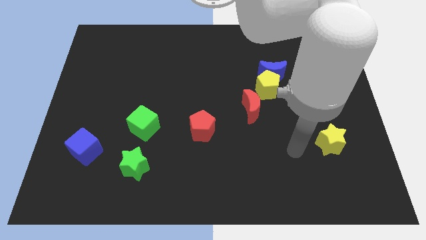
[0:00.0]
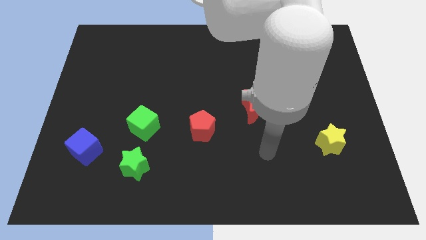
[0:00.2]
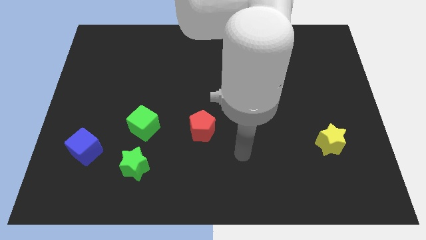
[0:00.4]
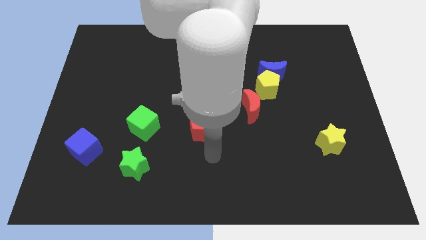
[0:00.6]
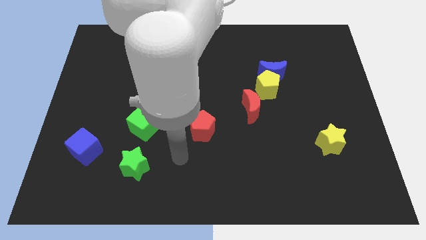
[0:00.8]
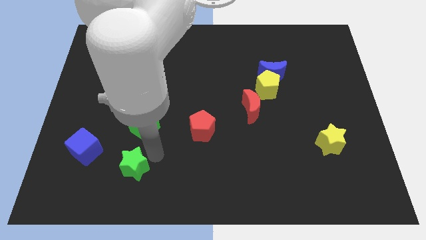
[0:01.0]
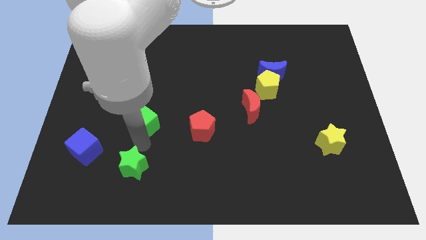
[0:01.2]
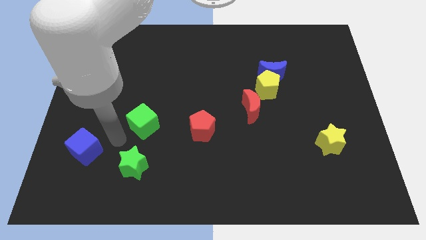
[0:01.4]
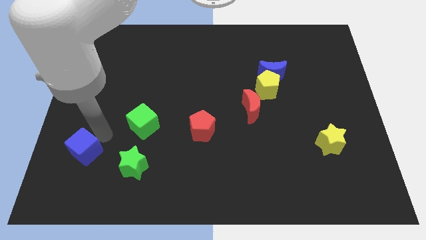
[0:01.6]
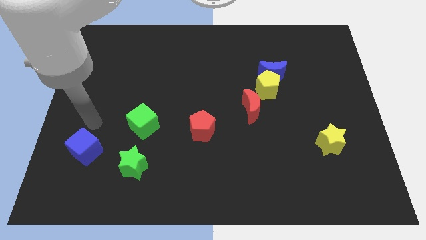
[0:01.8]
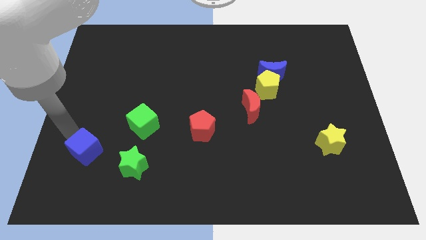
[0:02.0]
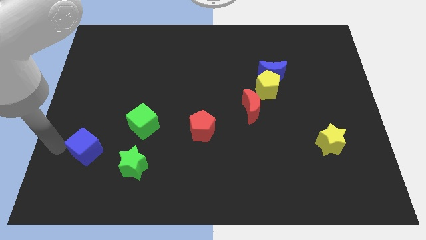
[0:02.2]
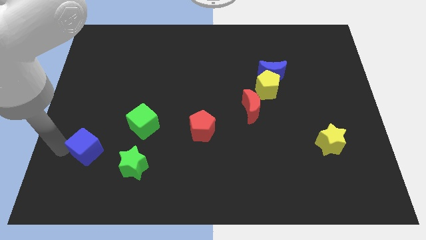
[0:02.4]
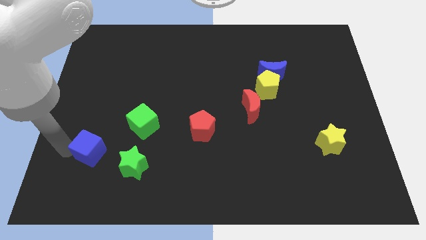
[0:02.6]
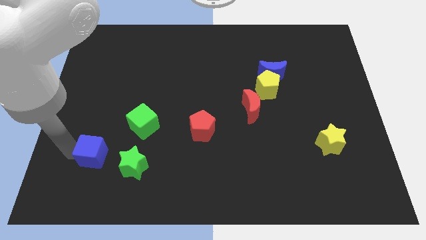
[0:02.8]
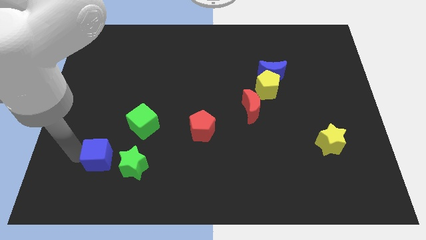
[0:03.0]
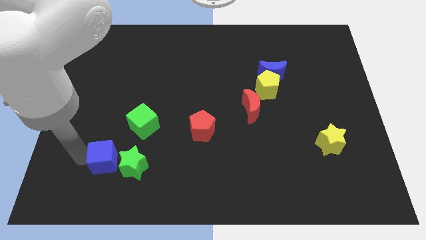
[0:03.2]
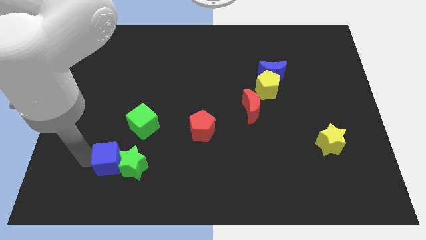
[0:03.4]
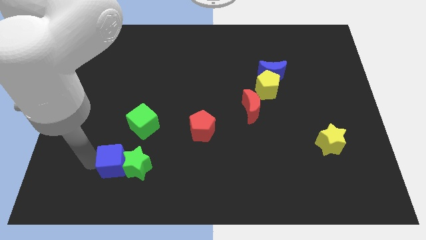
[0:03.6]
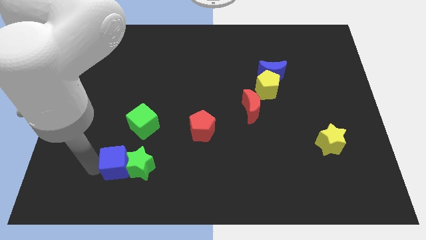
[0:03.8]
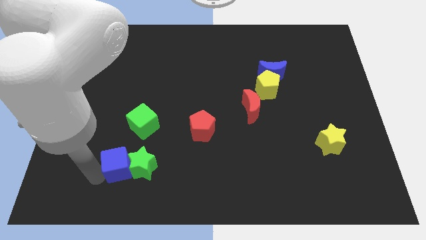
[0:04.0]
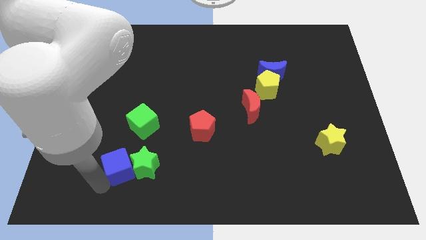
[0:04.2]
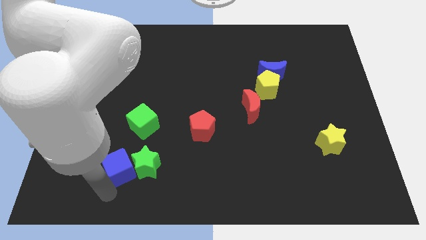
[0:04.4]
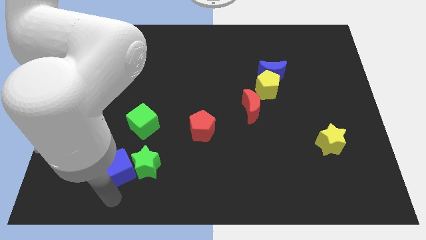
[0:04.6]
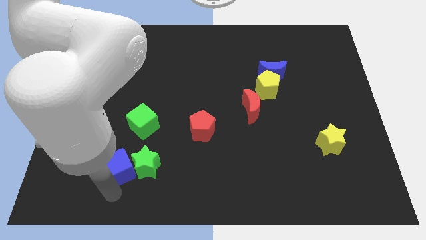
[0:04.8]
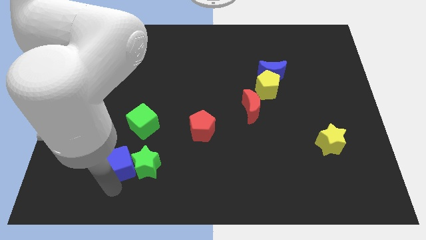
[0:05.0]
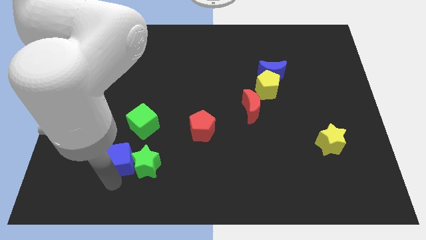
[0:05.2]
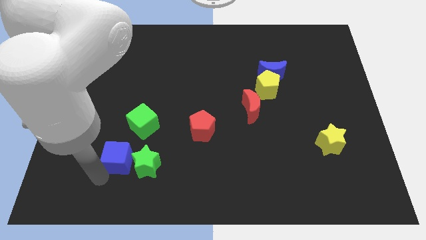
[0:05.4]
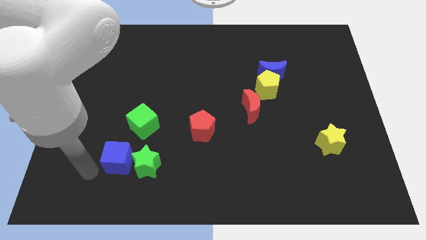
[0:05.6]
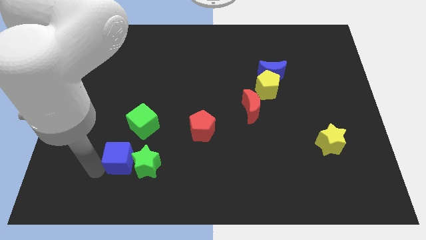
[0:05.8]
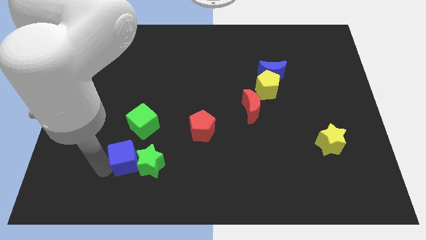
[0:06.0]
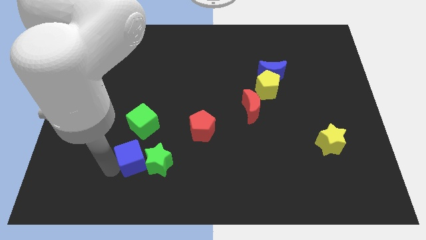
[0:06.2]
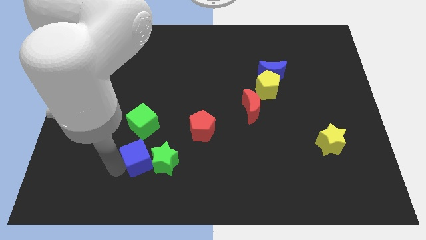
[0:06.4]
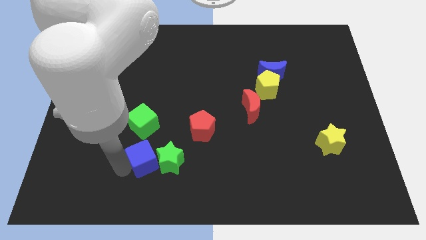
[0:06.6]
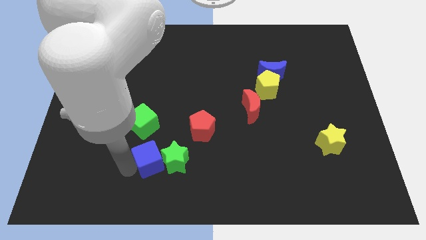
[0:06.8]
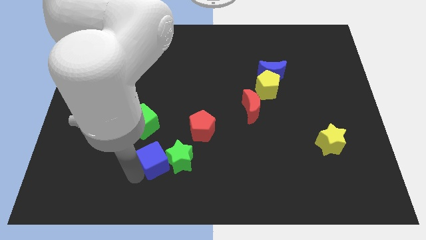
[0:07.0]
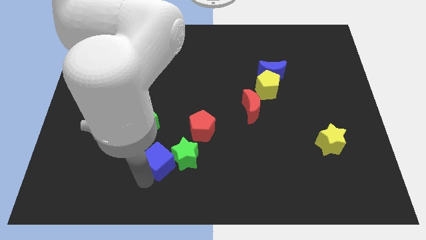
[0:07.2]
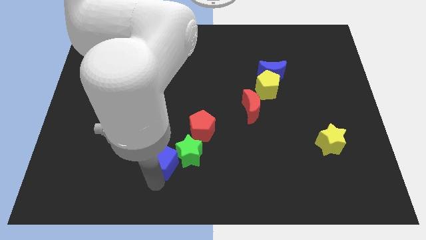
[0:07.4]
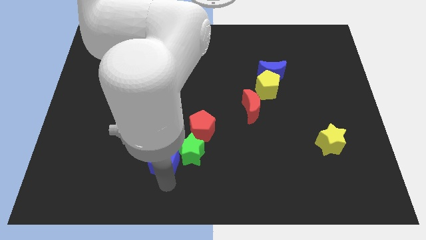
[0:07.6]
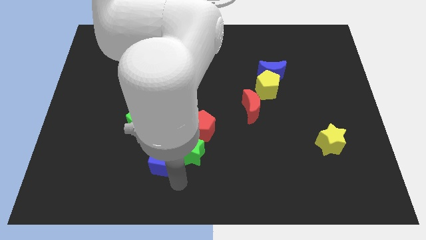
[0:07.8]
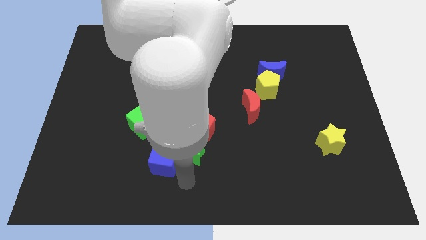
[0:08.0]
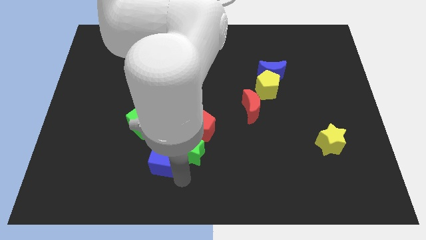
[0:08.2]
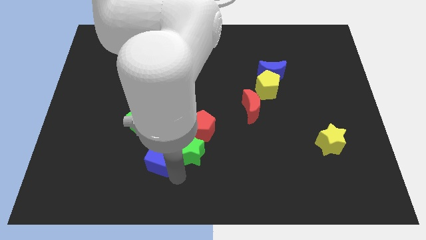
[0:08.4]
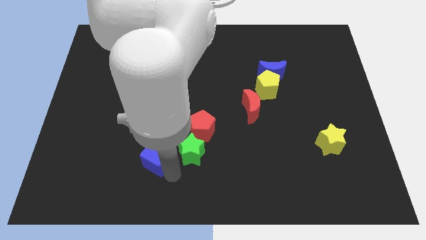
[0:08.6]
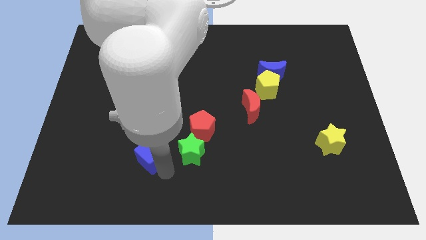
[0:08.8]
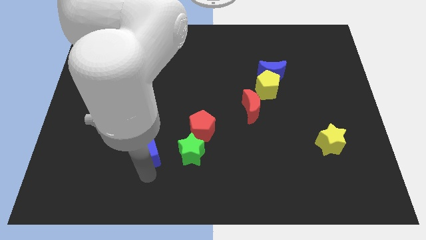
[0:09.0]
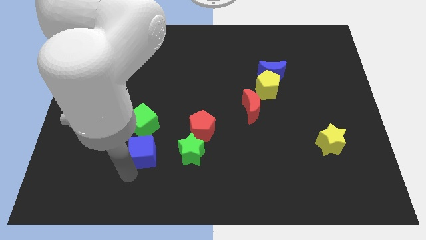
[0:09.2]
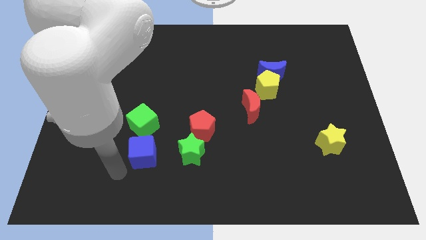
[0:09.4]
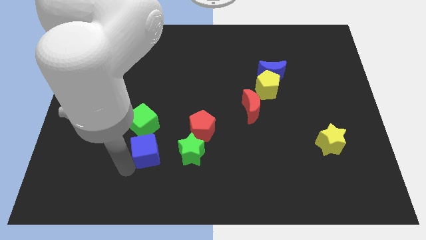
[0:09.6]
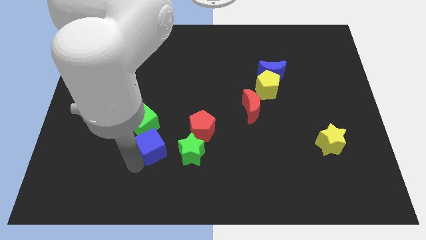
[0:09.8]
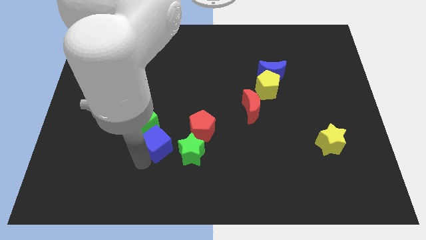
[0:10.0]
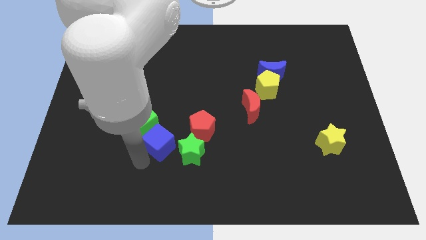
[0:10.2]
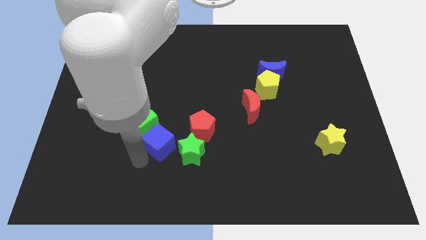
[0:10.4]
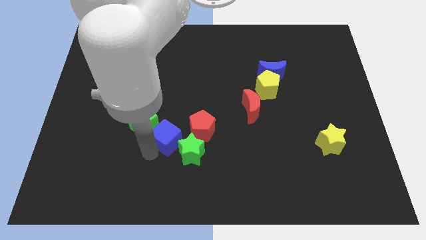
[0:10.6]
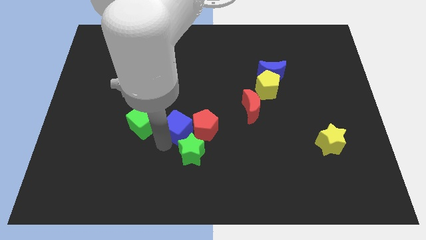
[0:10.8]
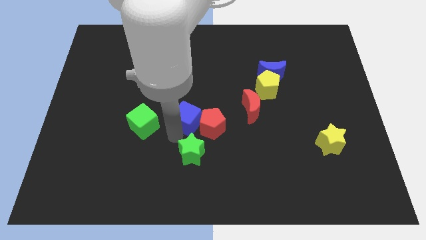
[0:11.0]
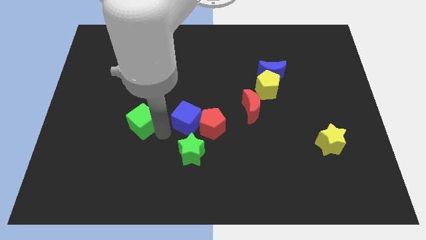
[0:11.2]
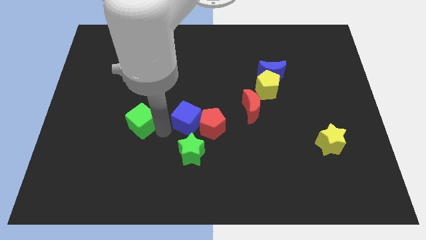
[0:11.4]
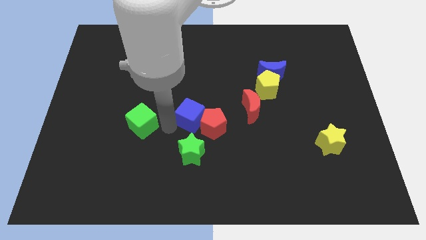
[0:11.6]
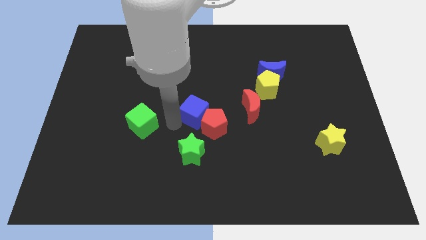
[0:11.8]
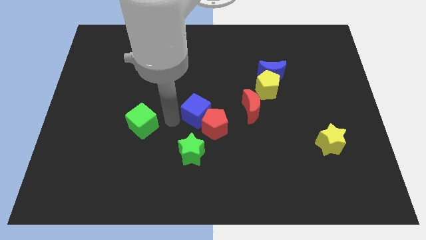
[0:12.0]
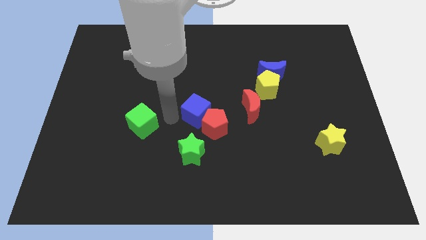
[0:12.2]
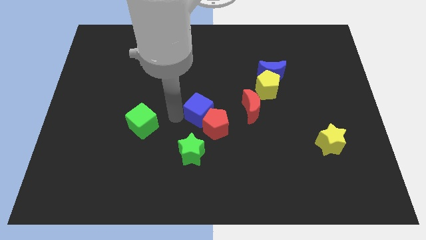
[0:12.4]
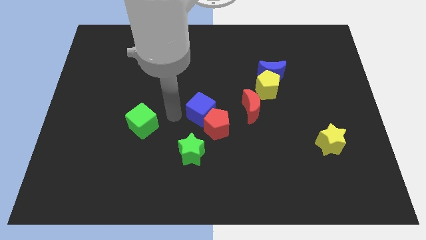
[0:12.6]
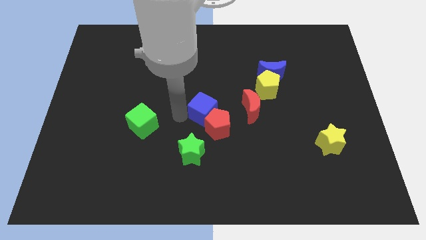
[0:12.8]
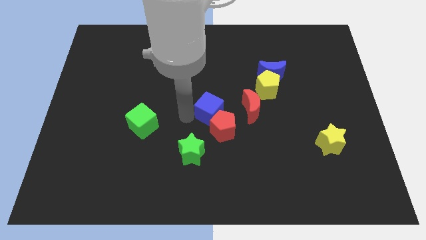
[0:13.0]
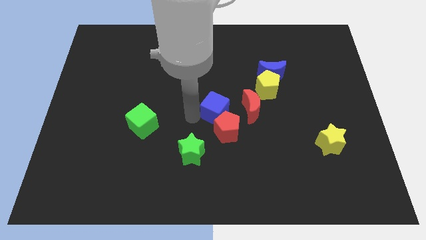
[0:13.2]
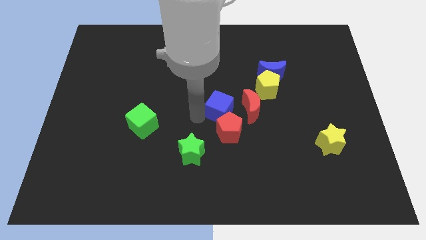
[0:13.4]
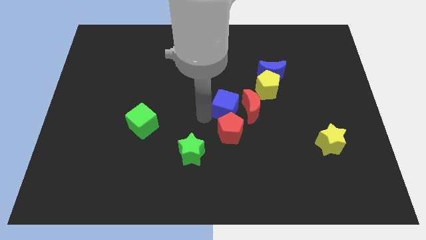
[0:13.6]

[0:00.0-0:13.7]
put the blue cube next to the red moon
